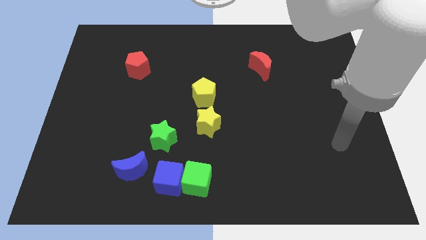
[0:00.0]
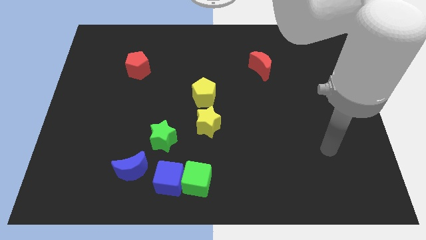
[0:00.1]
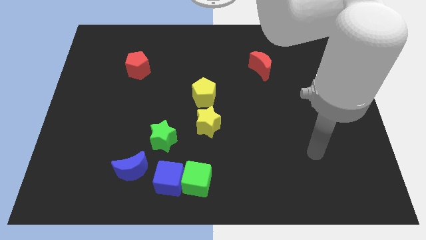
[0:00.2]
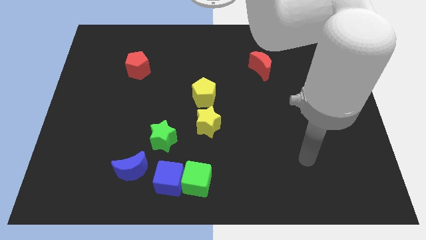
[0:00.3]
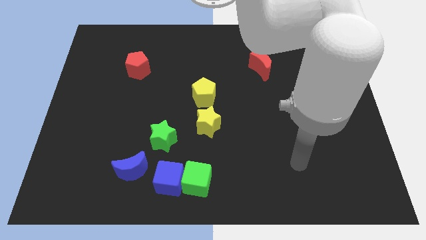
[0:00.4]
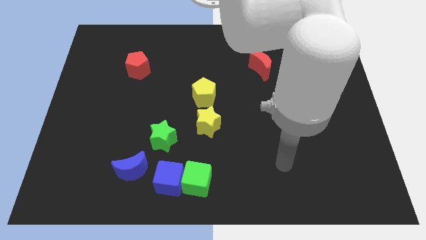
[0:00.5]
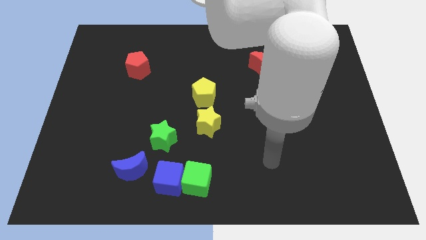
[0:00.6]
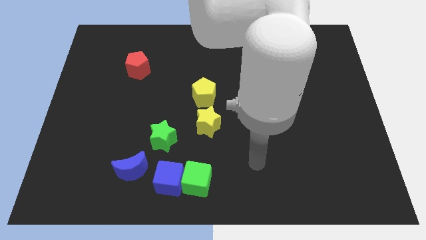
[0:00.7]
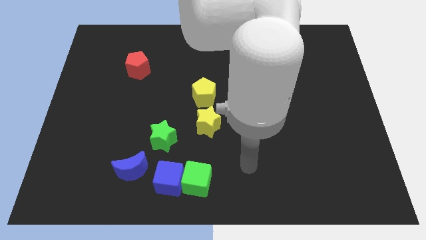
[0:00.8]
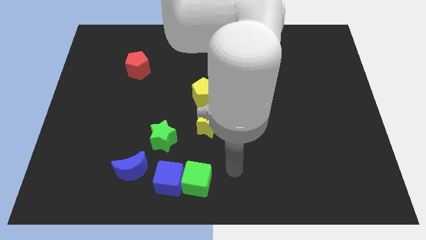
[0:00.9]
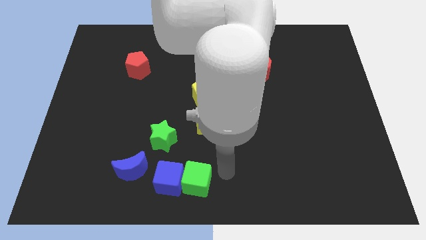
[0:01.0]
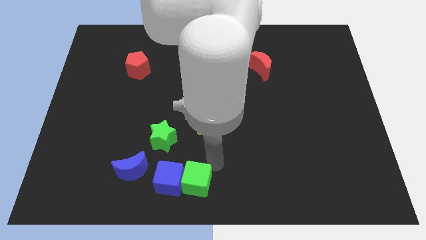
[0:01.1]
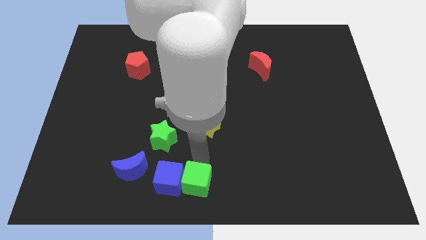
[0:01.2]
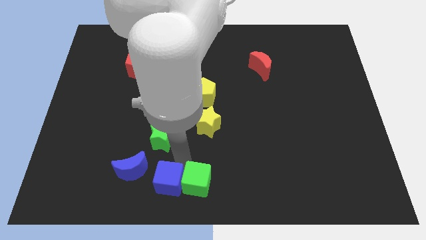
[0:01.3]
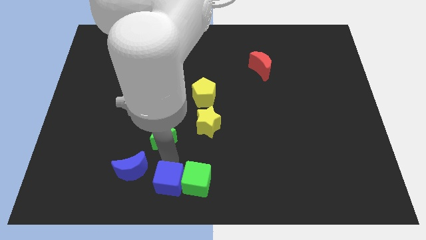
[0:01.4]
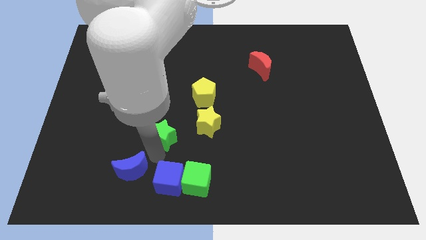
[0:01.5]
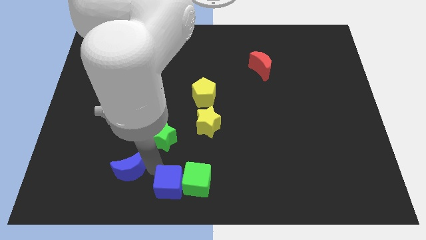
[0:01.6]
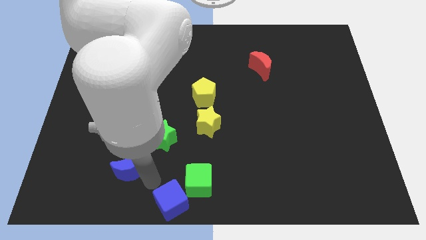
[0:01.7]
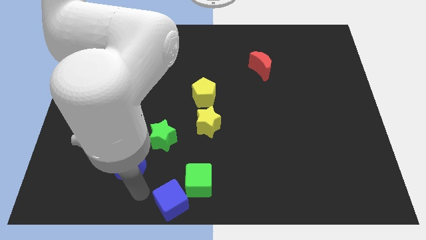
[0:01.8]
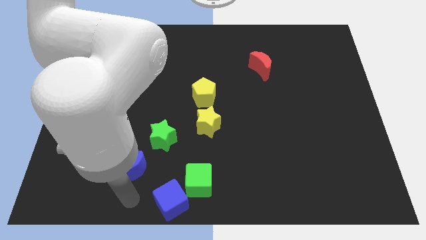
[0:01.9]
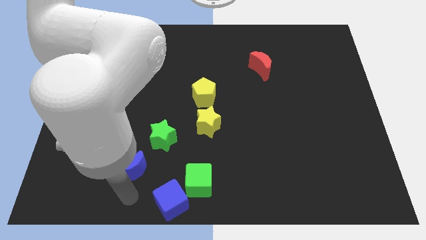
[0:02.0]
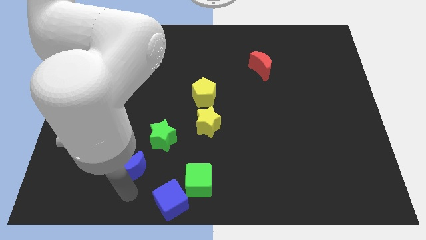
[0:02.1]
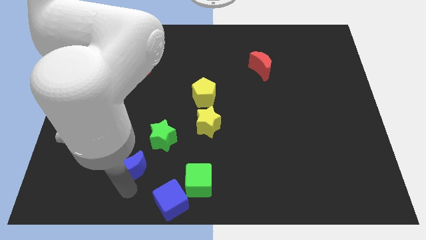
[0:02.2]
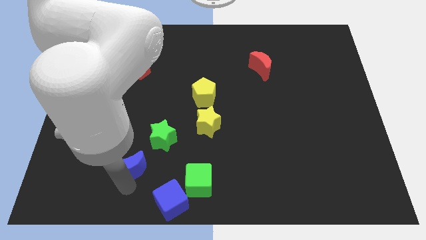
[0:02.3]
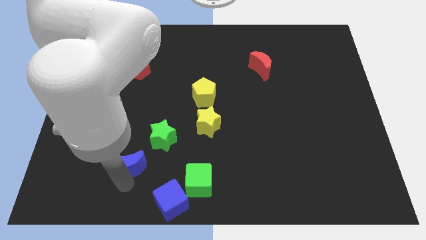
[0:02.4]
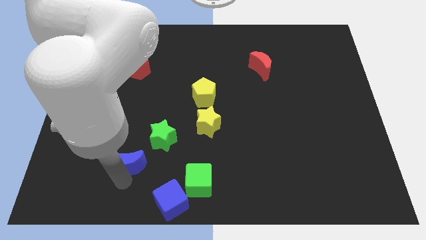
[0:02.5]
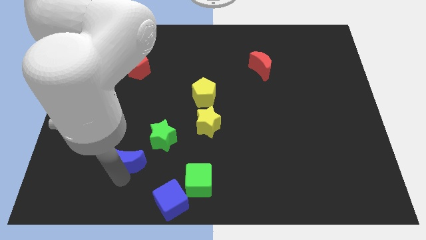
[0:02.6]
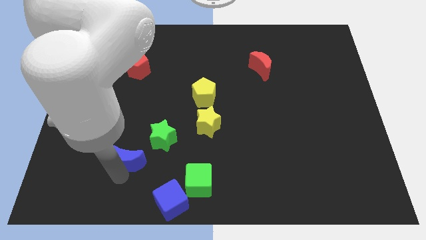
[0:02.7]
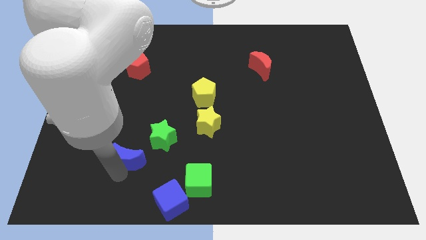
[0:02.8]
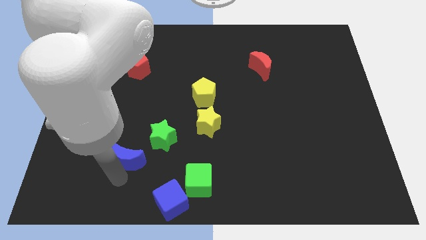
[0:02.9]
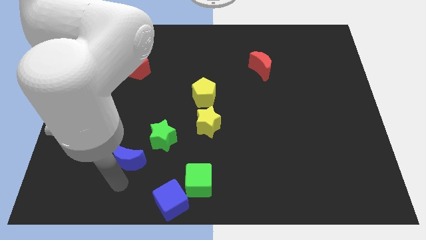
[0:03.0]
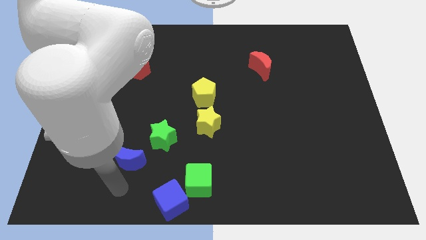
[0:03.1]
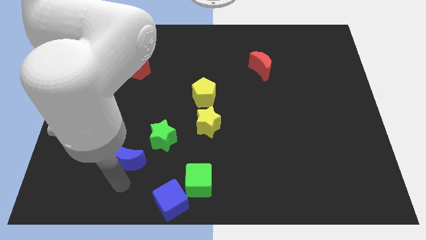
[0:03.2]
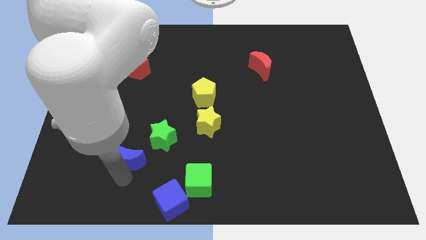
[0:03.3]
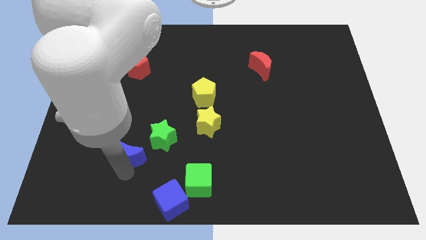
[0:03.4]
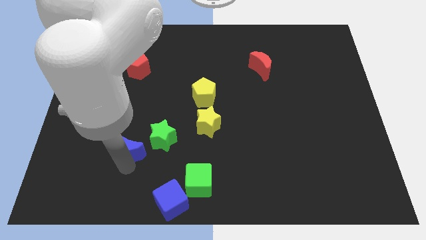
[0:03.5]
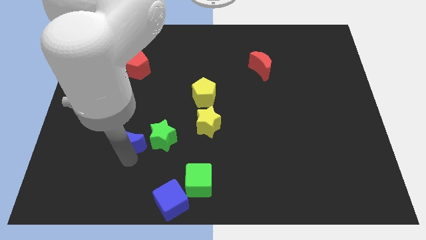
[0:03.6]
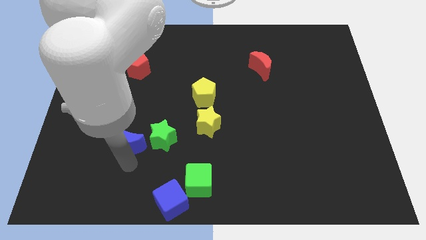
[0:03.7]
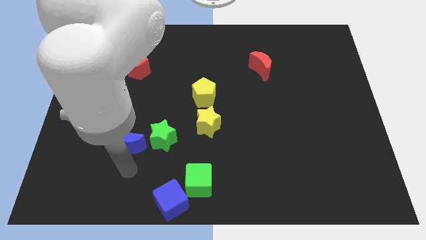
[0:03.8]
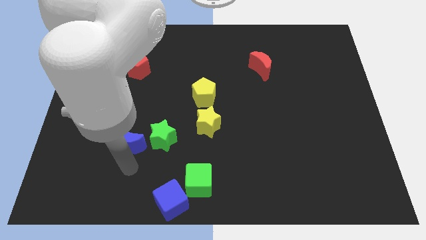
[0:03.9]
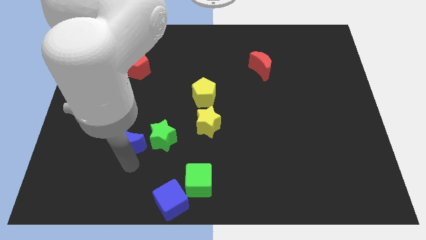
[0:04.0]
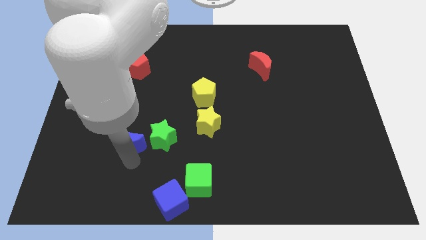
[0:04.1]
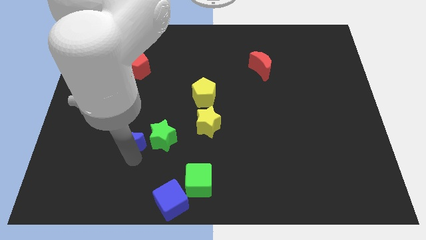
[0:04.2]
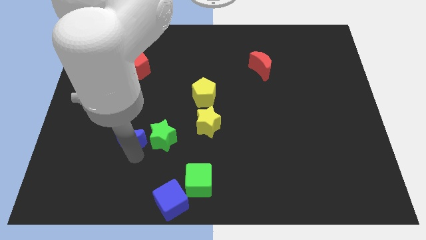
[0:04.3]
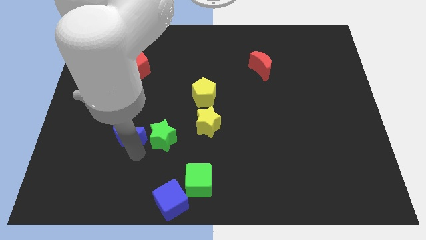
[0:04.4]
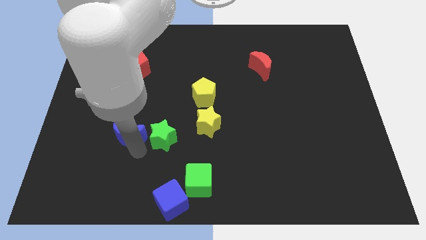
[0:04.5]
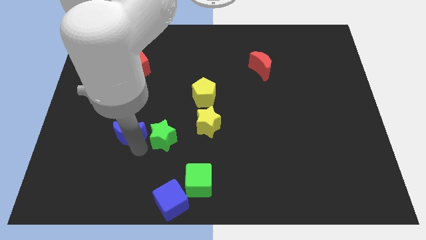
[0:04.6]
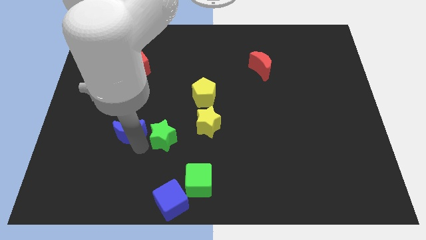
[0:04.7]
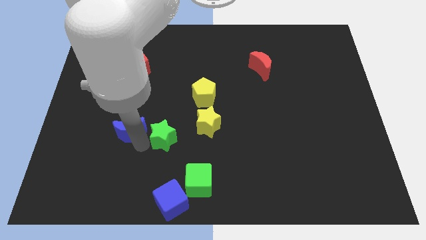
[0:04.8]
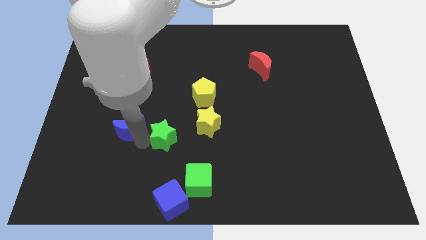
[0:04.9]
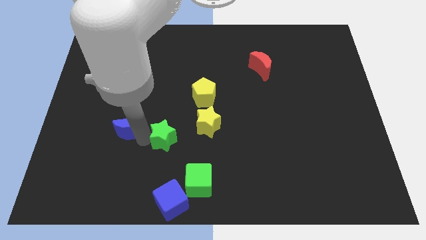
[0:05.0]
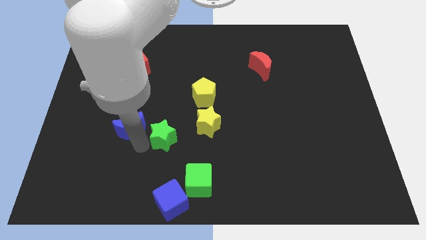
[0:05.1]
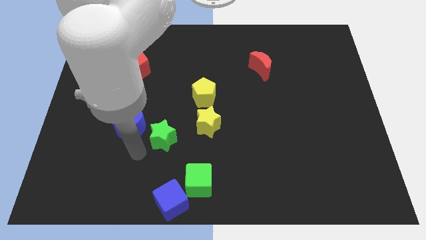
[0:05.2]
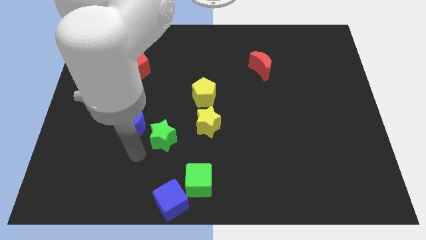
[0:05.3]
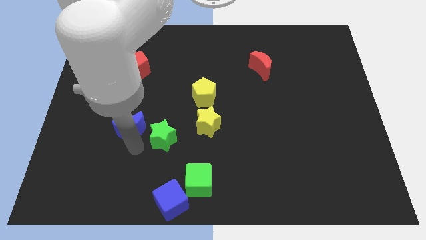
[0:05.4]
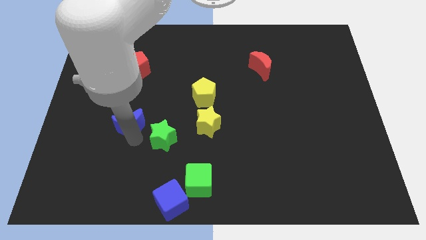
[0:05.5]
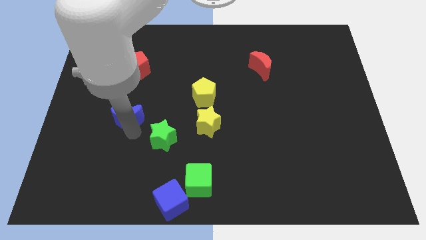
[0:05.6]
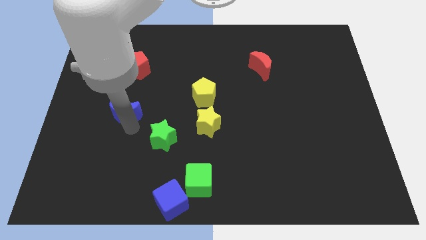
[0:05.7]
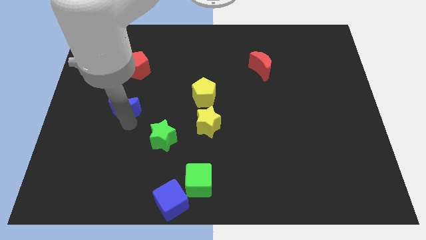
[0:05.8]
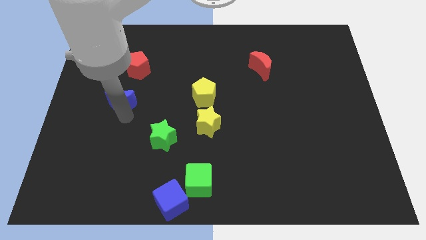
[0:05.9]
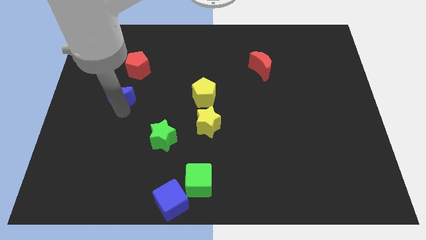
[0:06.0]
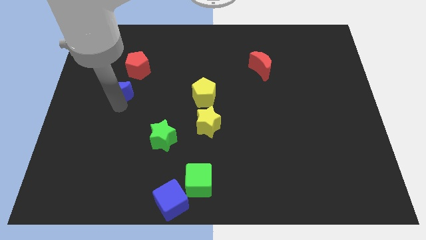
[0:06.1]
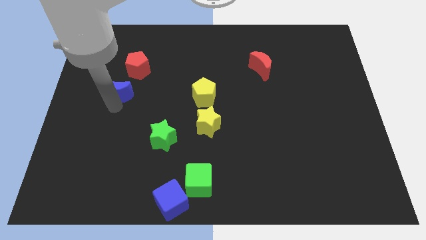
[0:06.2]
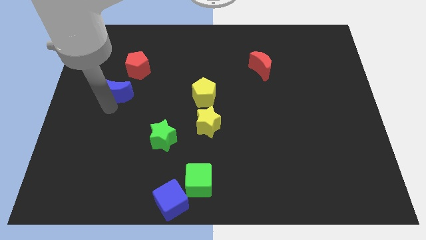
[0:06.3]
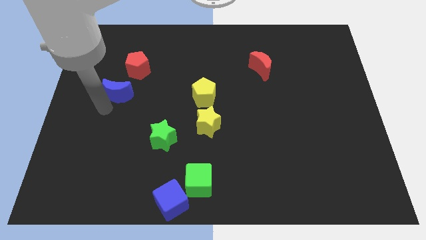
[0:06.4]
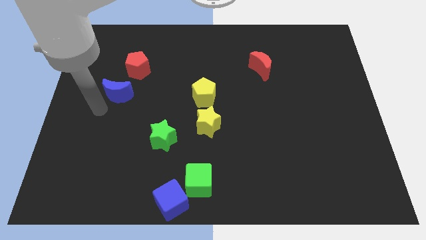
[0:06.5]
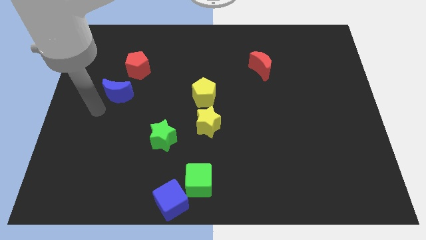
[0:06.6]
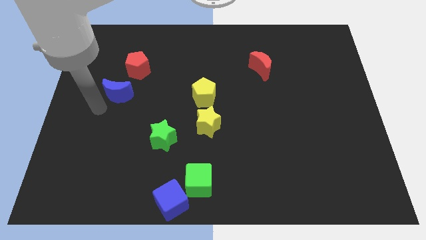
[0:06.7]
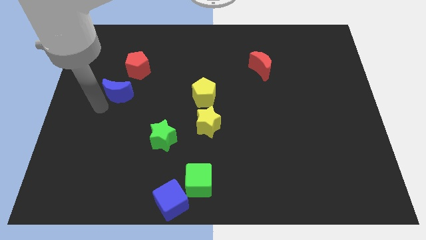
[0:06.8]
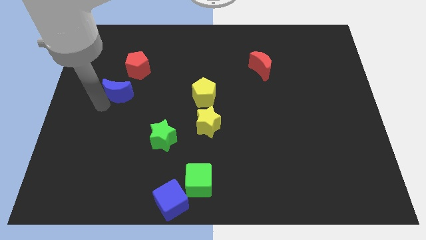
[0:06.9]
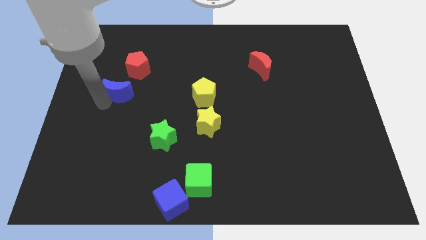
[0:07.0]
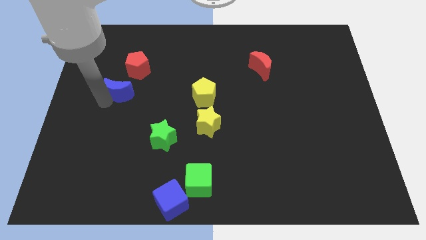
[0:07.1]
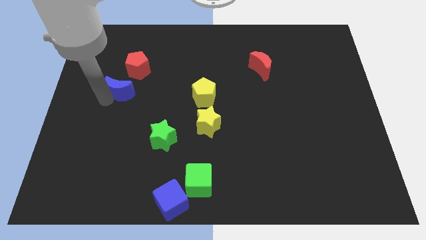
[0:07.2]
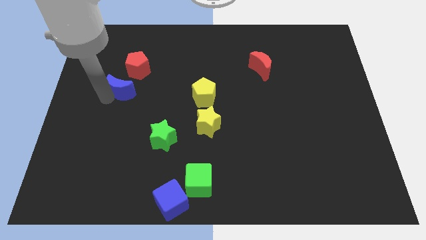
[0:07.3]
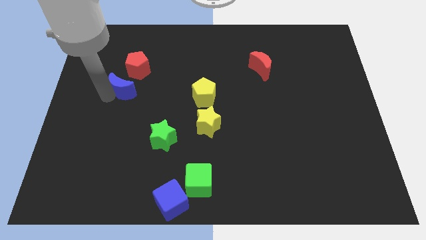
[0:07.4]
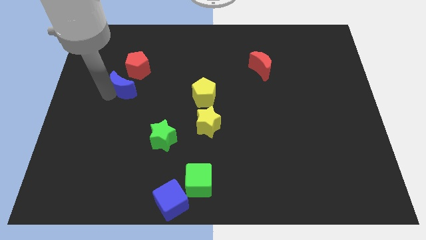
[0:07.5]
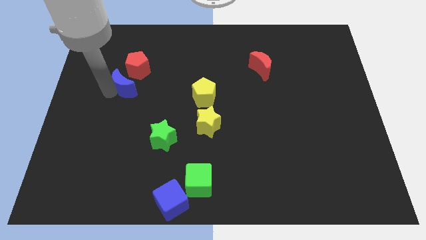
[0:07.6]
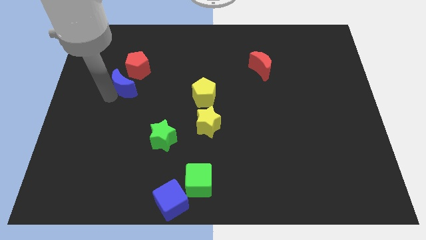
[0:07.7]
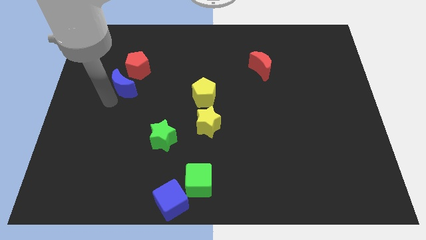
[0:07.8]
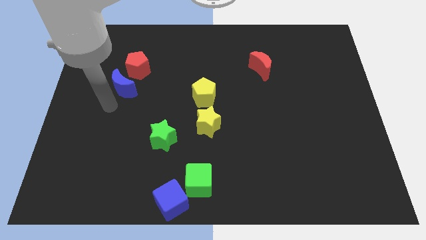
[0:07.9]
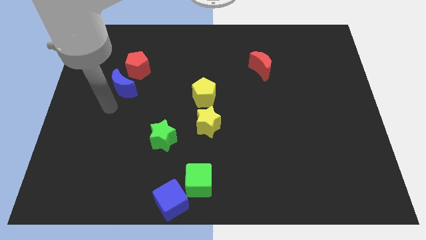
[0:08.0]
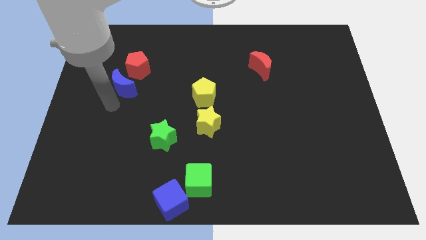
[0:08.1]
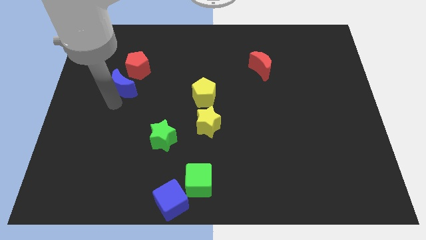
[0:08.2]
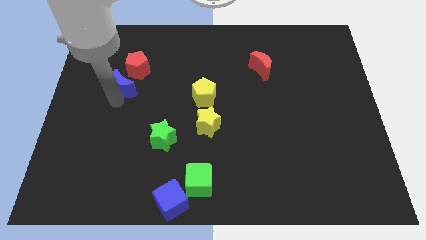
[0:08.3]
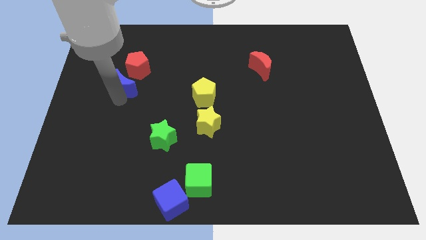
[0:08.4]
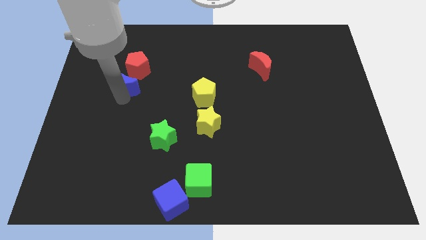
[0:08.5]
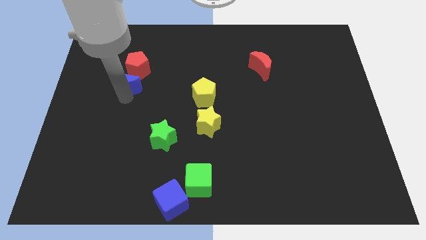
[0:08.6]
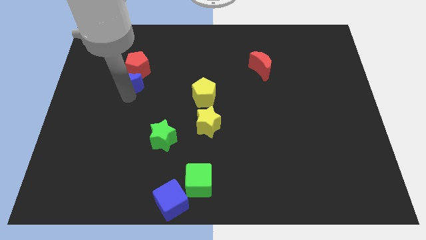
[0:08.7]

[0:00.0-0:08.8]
slide the blue moon towards the red pentagon
